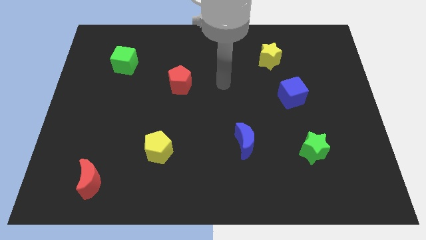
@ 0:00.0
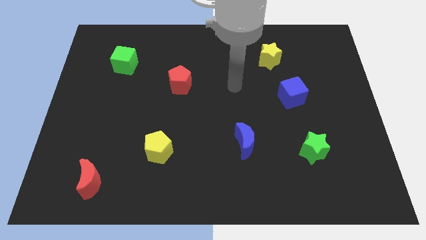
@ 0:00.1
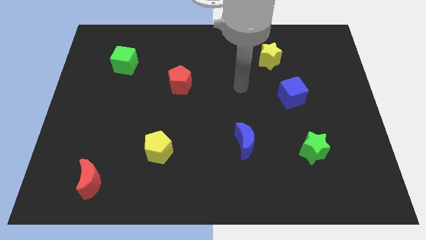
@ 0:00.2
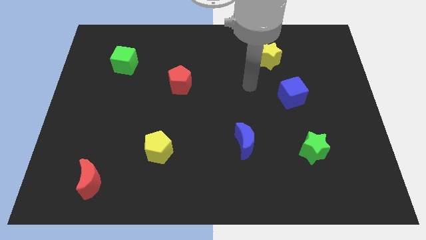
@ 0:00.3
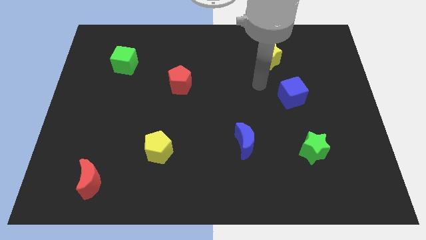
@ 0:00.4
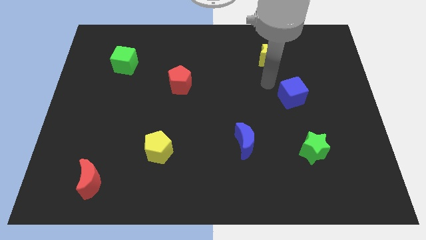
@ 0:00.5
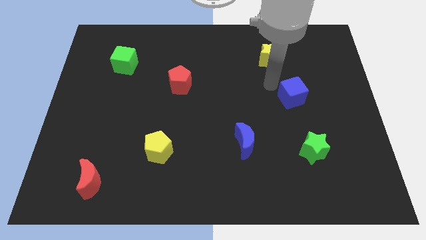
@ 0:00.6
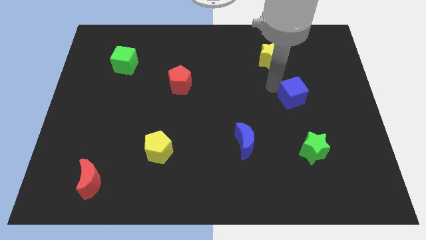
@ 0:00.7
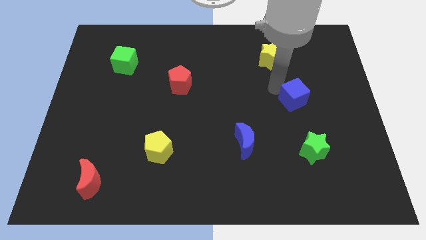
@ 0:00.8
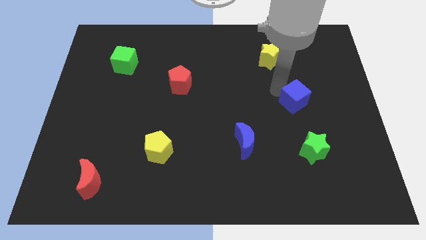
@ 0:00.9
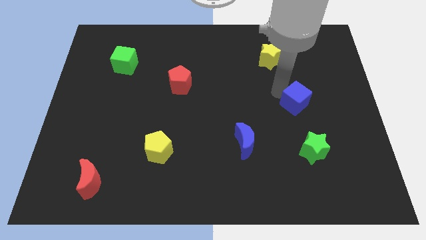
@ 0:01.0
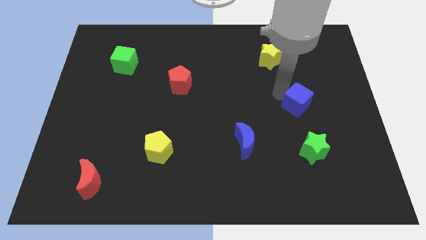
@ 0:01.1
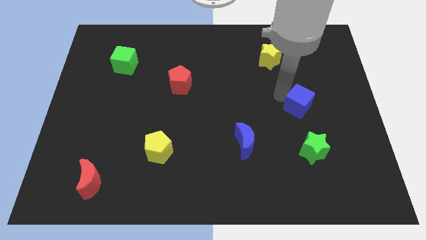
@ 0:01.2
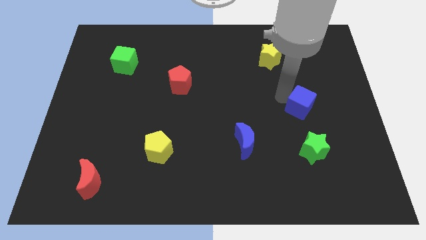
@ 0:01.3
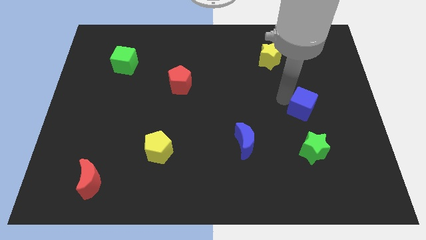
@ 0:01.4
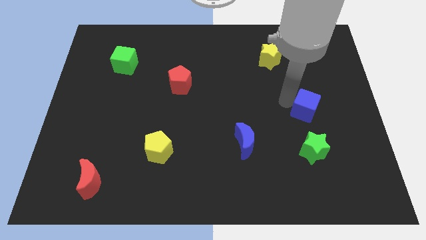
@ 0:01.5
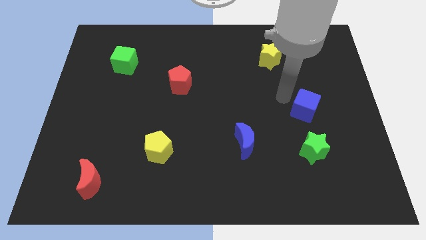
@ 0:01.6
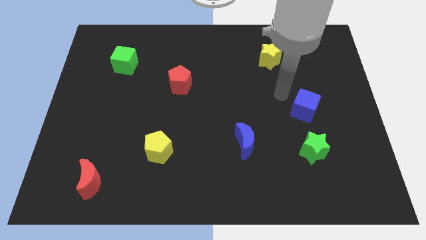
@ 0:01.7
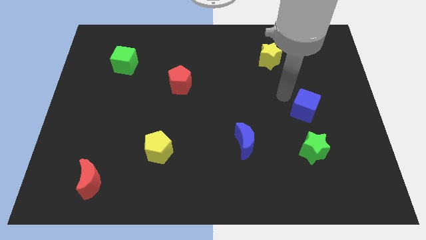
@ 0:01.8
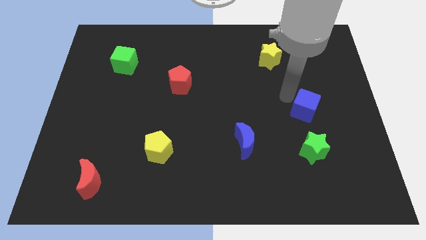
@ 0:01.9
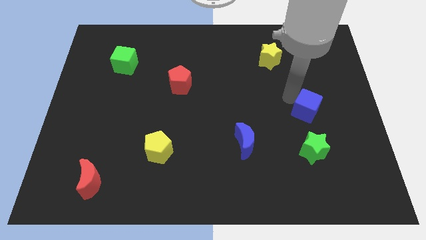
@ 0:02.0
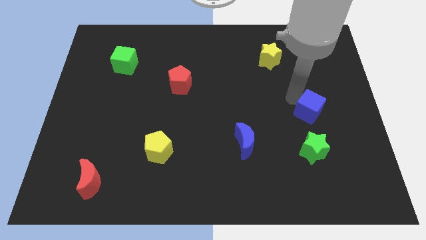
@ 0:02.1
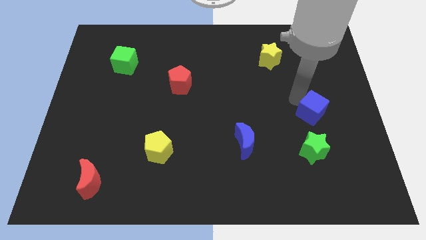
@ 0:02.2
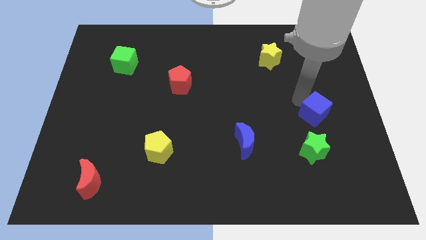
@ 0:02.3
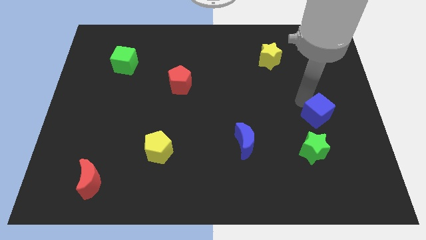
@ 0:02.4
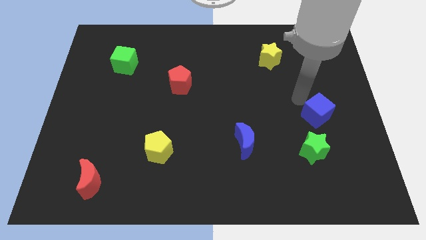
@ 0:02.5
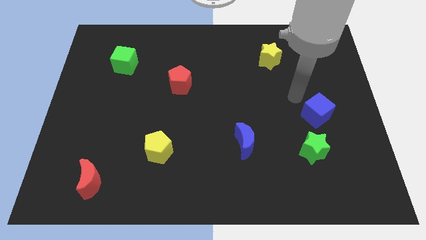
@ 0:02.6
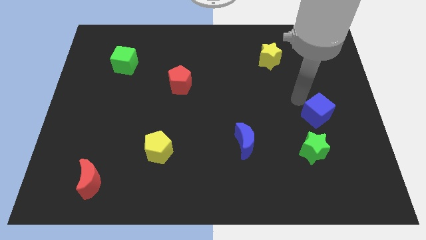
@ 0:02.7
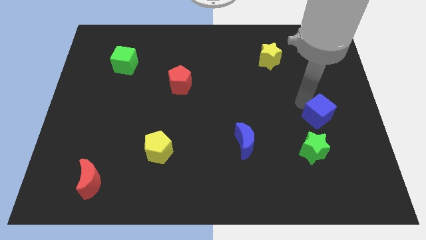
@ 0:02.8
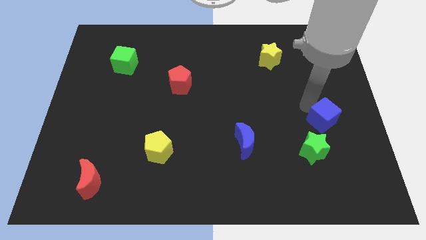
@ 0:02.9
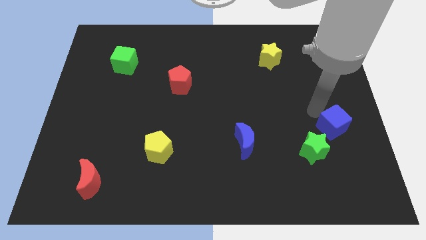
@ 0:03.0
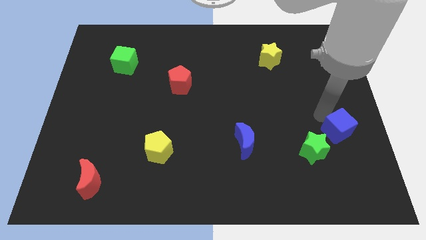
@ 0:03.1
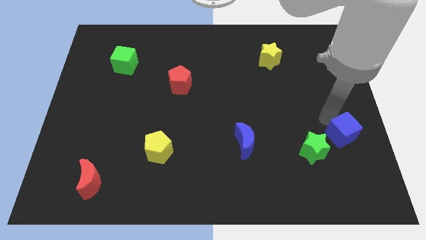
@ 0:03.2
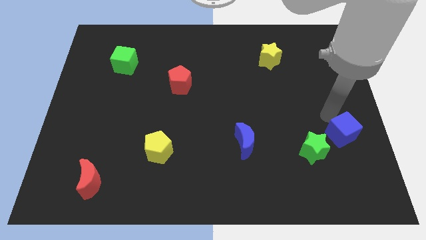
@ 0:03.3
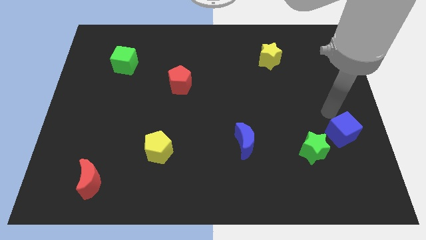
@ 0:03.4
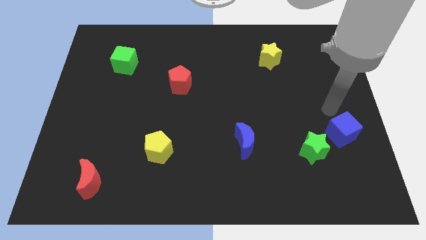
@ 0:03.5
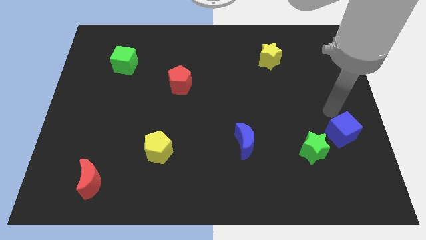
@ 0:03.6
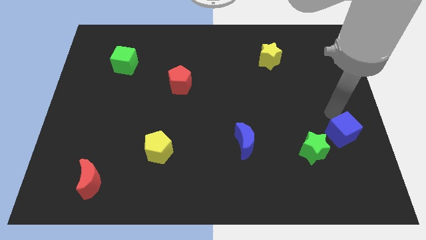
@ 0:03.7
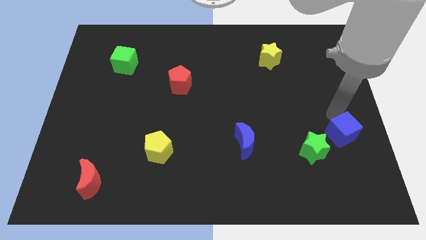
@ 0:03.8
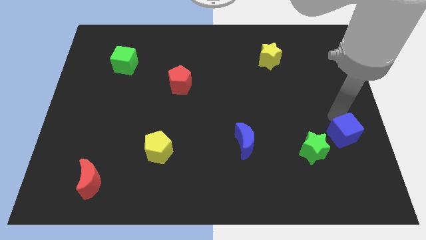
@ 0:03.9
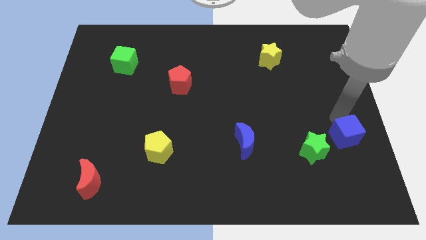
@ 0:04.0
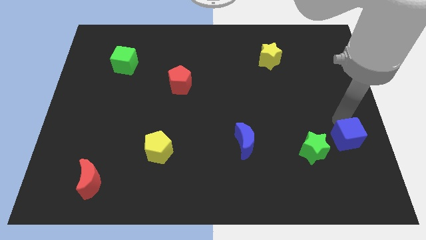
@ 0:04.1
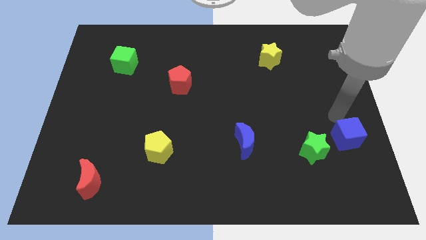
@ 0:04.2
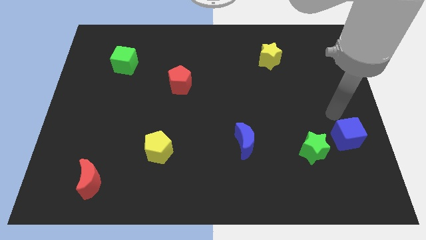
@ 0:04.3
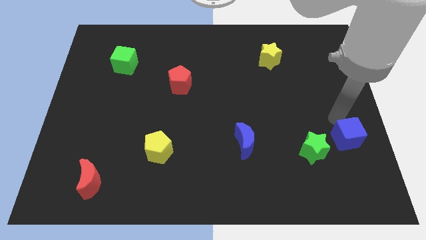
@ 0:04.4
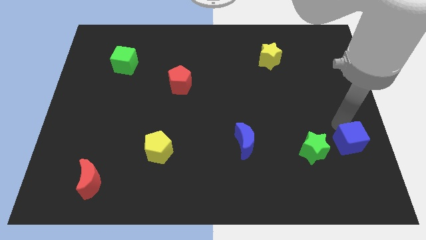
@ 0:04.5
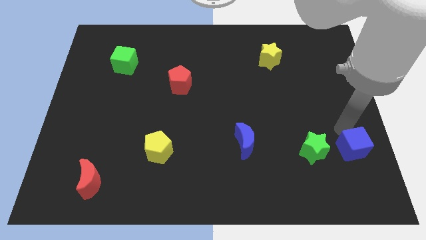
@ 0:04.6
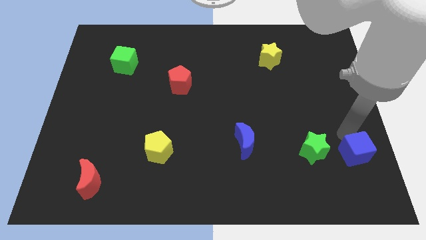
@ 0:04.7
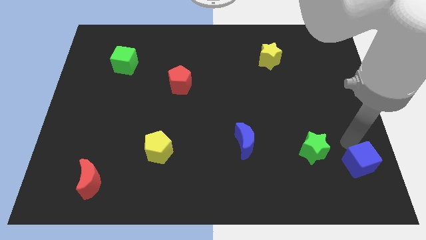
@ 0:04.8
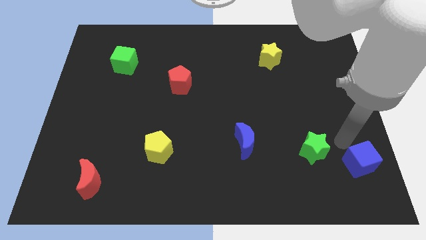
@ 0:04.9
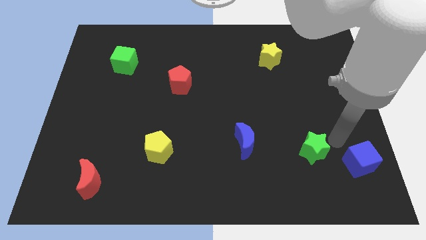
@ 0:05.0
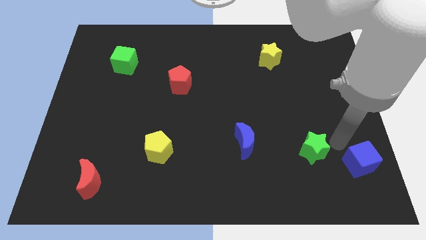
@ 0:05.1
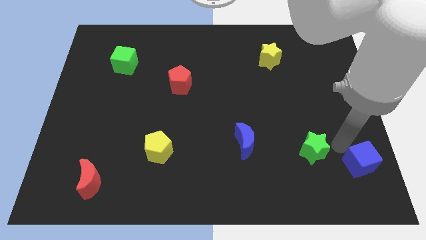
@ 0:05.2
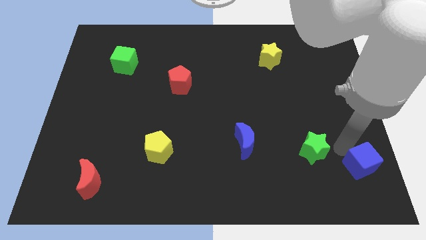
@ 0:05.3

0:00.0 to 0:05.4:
move the blue cube to the bottom right

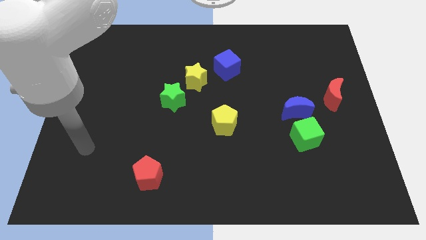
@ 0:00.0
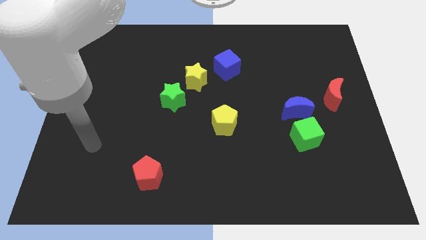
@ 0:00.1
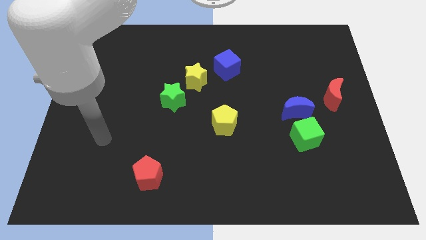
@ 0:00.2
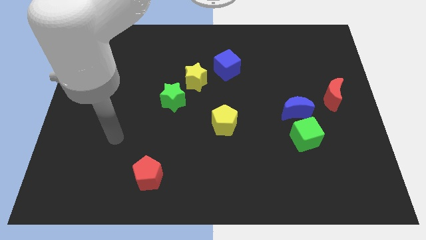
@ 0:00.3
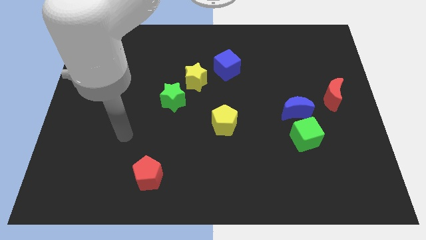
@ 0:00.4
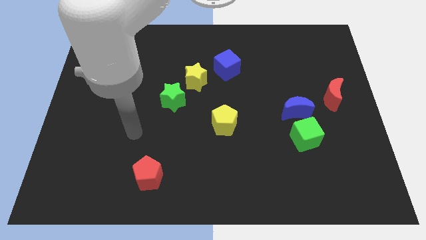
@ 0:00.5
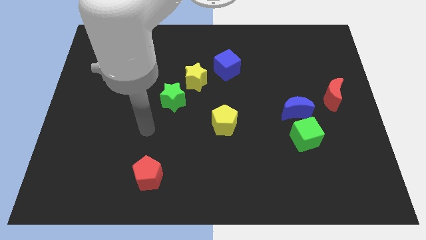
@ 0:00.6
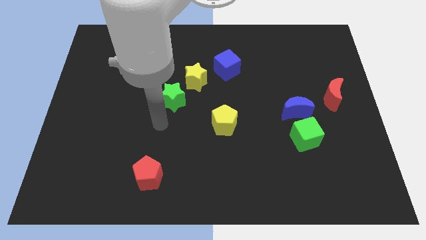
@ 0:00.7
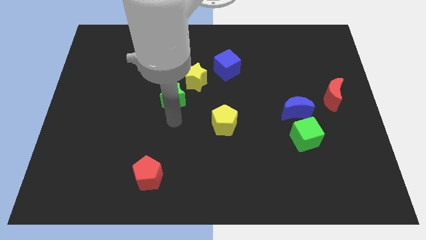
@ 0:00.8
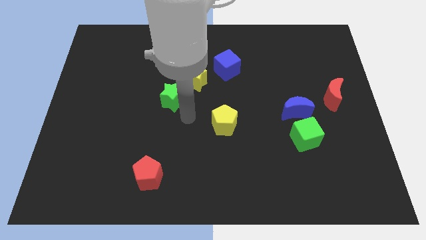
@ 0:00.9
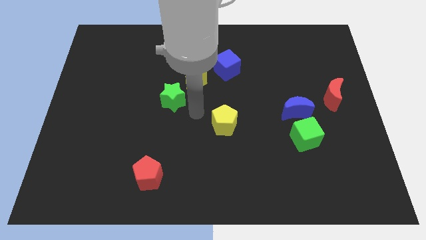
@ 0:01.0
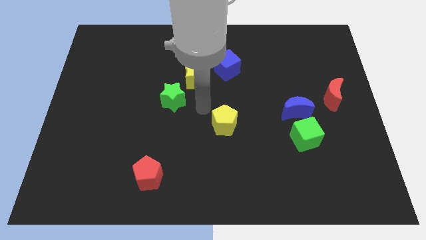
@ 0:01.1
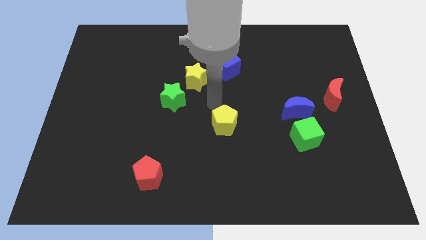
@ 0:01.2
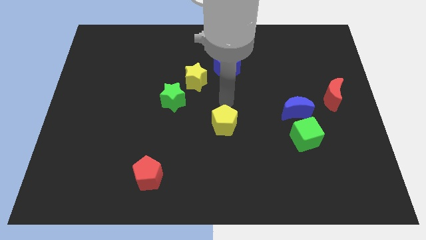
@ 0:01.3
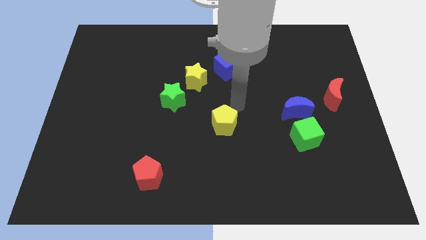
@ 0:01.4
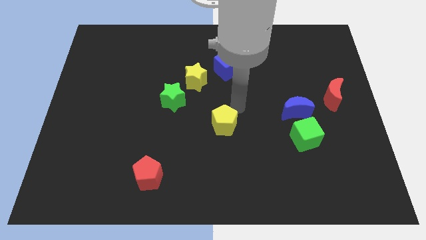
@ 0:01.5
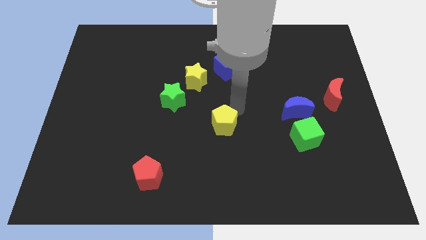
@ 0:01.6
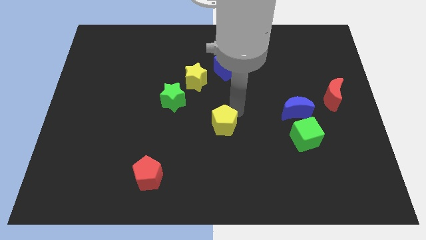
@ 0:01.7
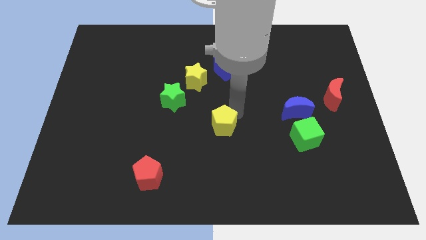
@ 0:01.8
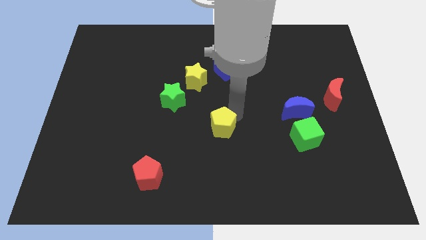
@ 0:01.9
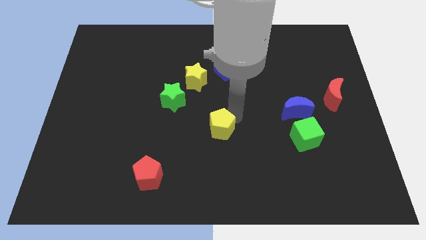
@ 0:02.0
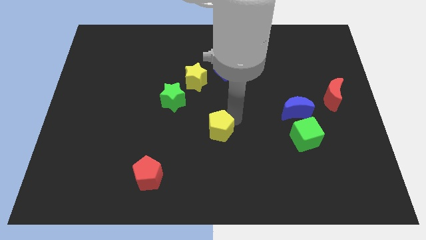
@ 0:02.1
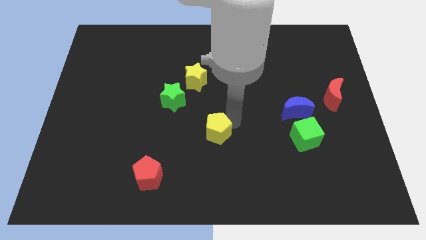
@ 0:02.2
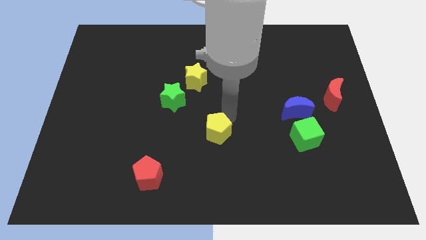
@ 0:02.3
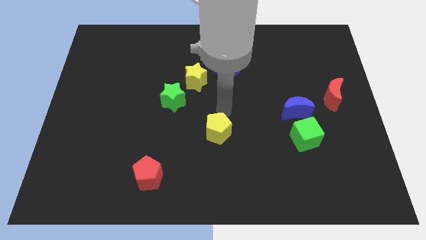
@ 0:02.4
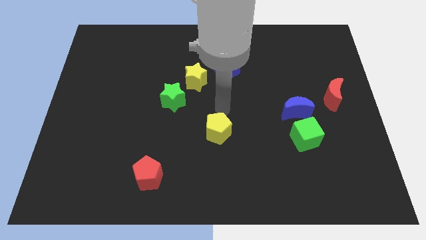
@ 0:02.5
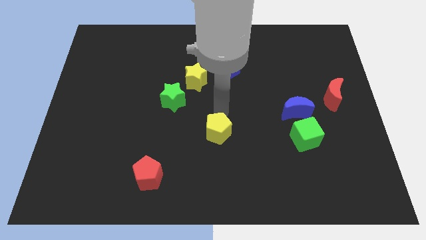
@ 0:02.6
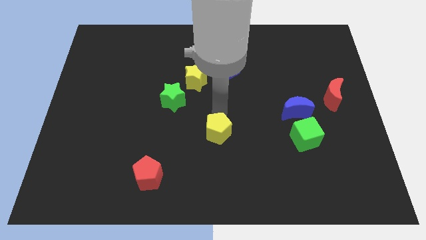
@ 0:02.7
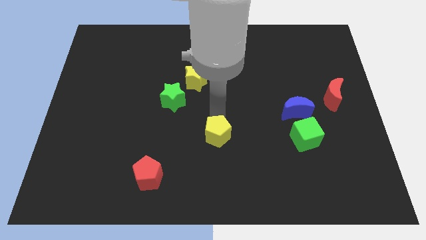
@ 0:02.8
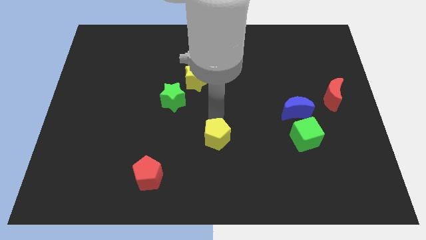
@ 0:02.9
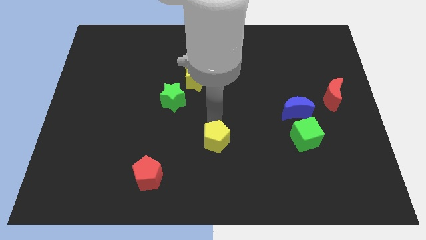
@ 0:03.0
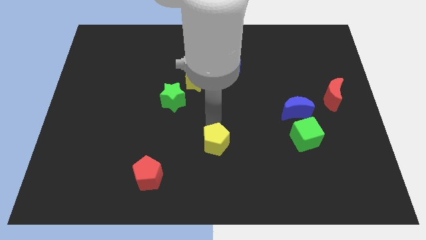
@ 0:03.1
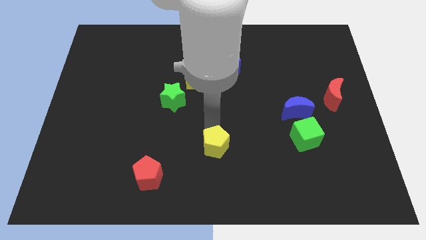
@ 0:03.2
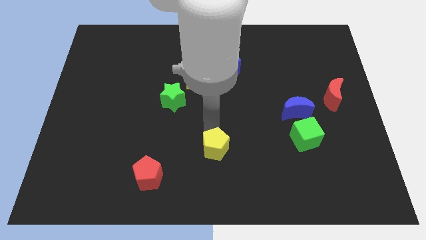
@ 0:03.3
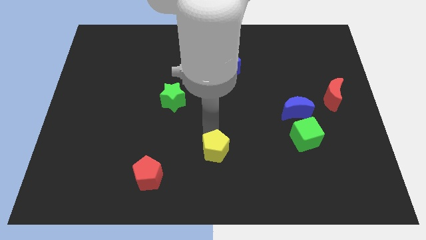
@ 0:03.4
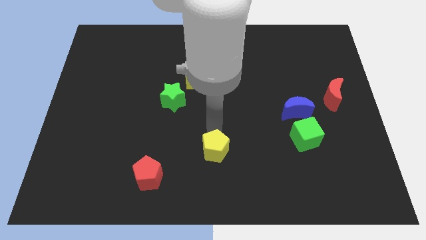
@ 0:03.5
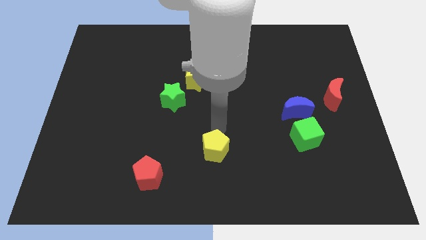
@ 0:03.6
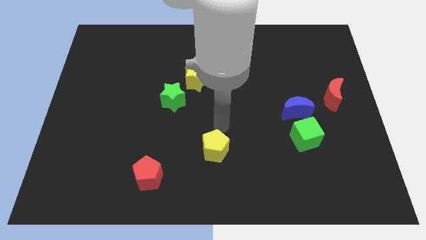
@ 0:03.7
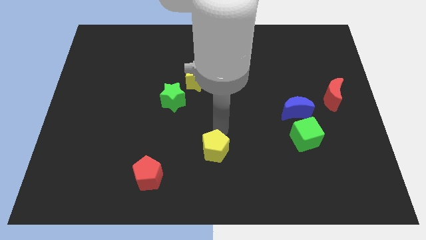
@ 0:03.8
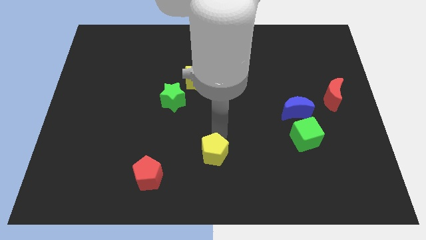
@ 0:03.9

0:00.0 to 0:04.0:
slide the yellow pentagon to the bottom
